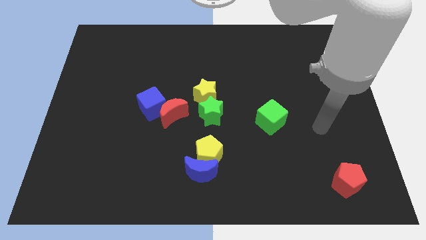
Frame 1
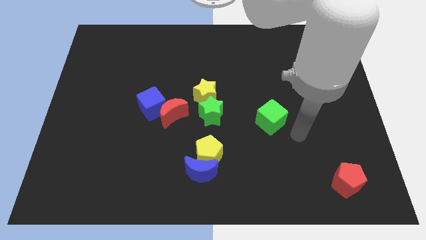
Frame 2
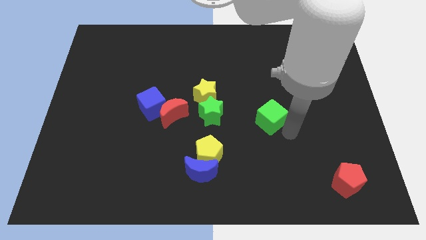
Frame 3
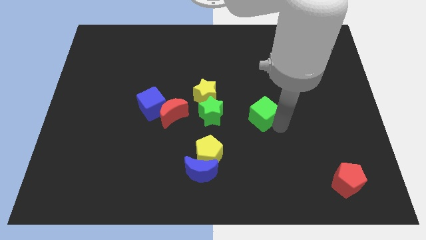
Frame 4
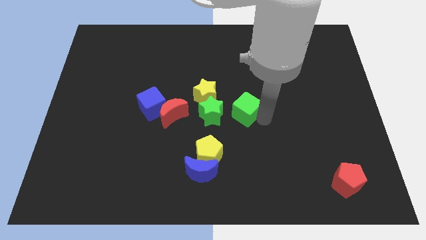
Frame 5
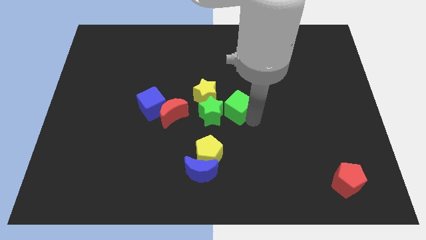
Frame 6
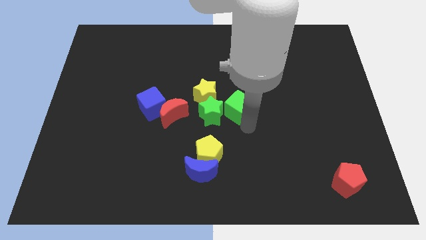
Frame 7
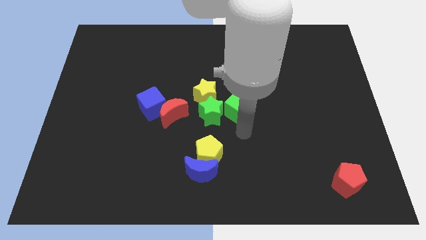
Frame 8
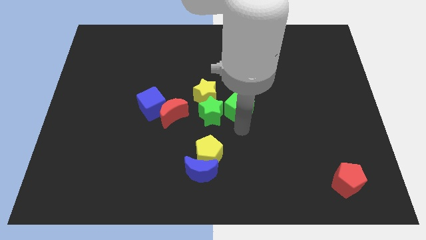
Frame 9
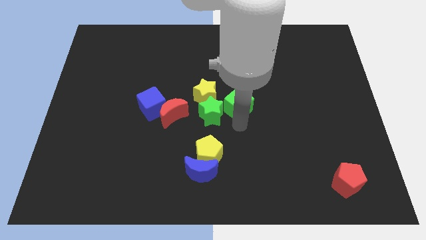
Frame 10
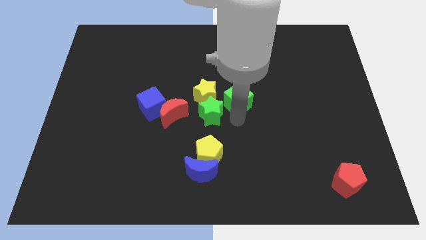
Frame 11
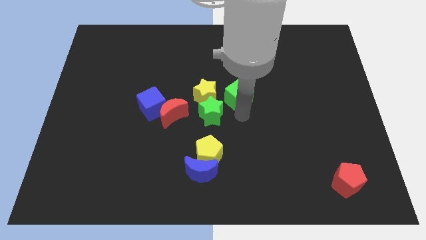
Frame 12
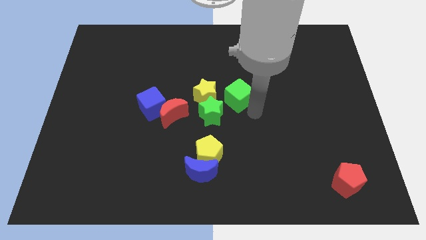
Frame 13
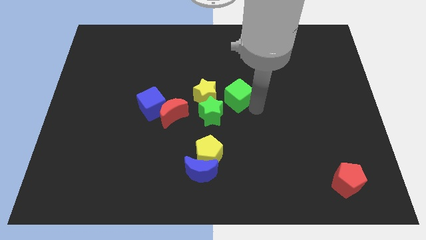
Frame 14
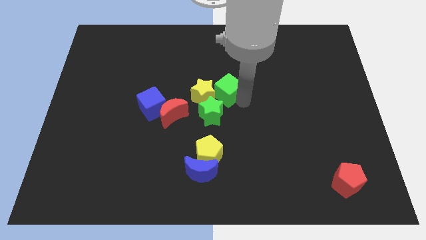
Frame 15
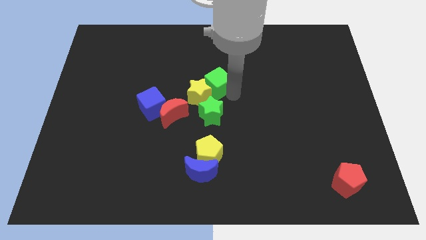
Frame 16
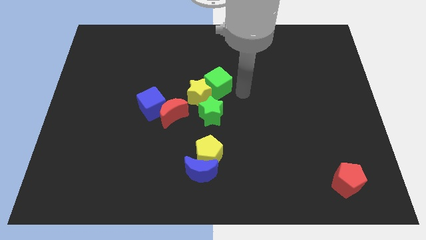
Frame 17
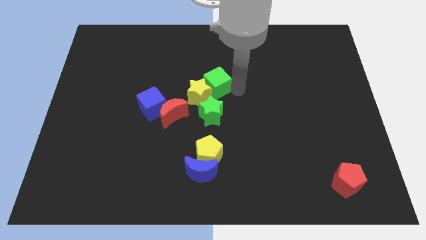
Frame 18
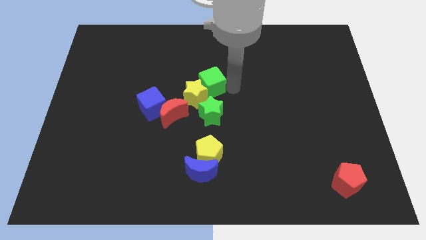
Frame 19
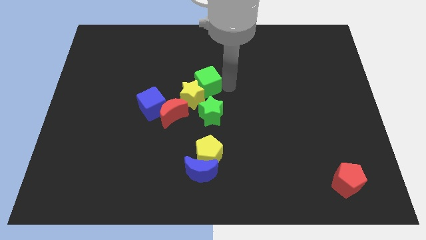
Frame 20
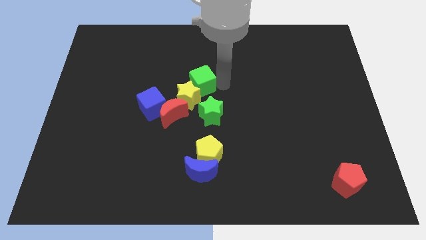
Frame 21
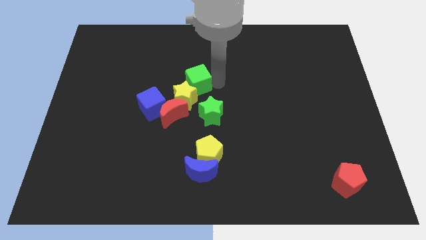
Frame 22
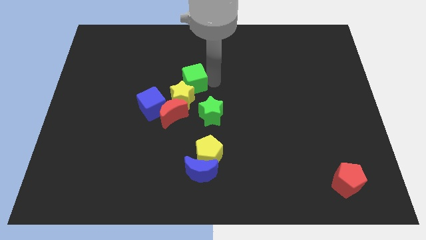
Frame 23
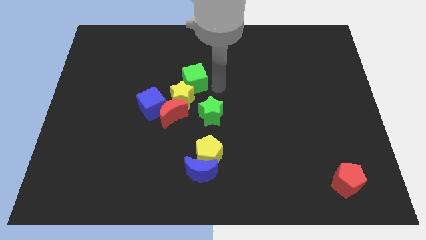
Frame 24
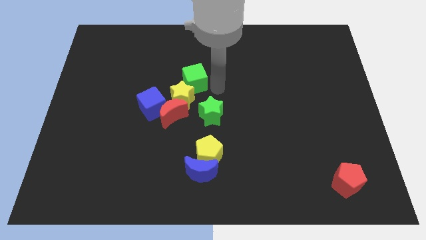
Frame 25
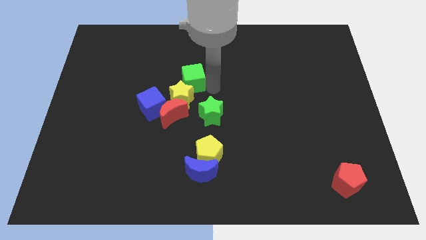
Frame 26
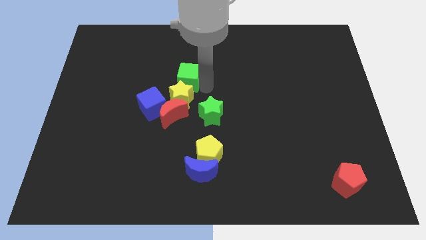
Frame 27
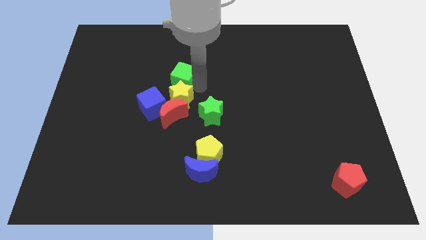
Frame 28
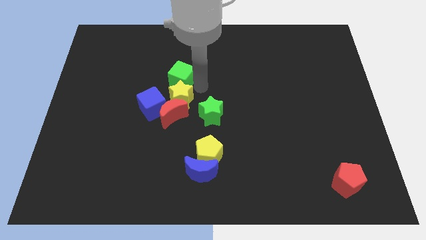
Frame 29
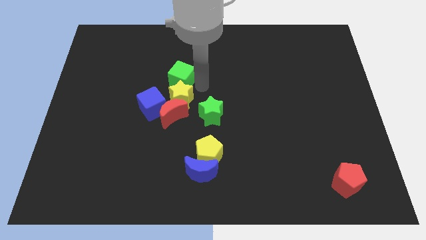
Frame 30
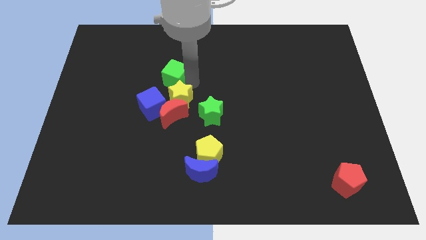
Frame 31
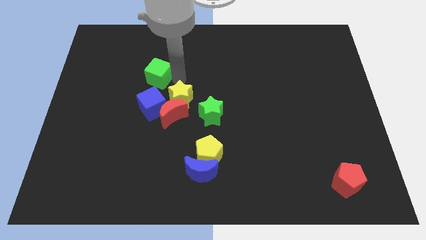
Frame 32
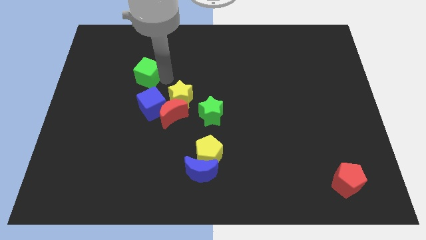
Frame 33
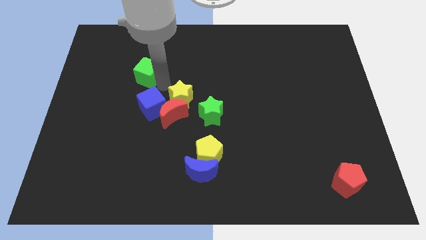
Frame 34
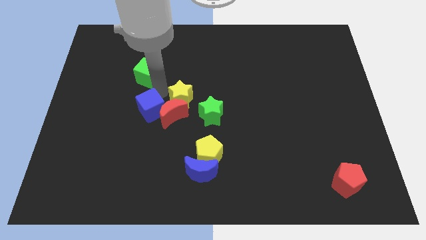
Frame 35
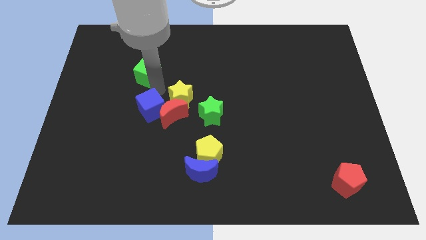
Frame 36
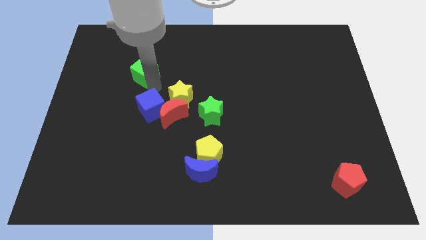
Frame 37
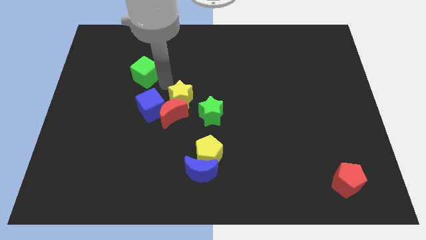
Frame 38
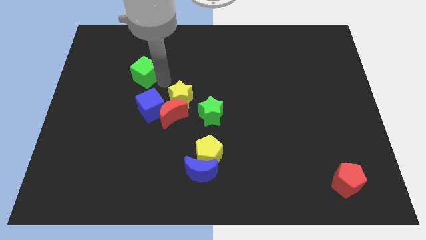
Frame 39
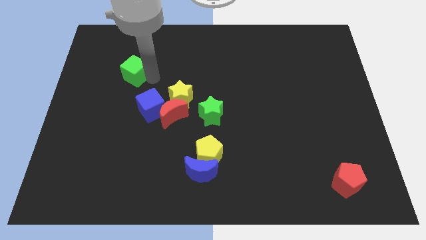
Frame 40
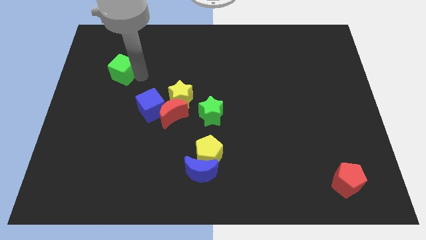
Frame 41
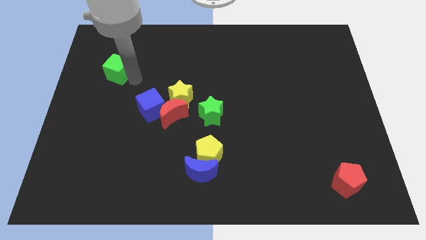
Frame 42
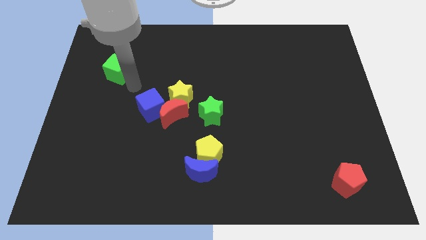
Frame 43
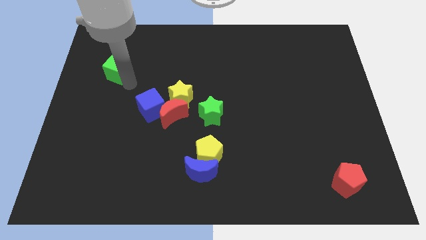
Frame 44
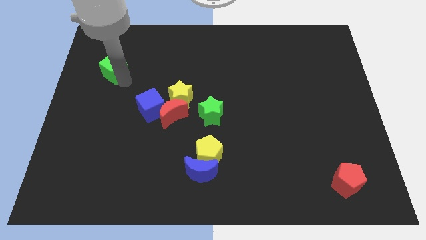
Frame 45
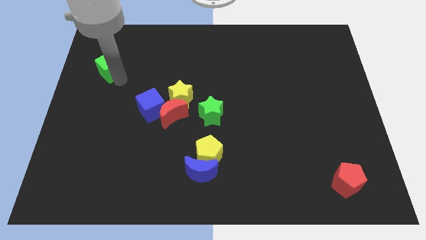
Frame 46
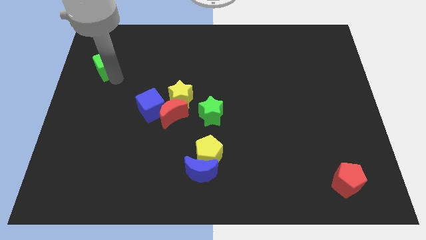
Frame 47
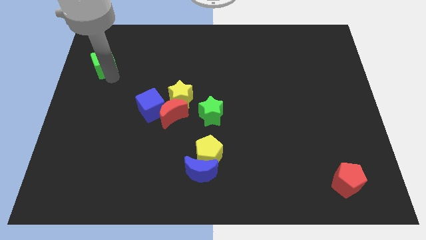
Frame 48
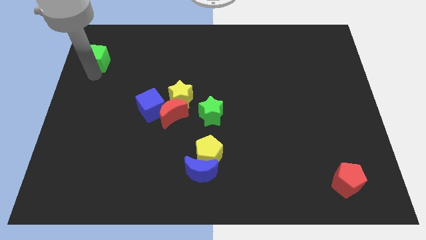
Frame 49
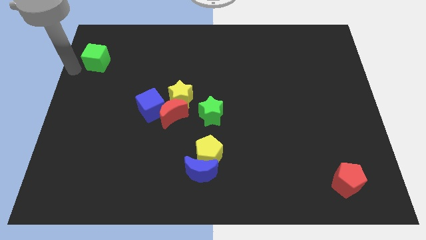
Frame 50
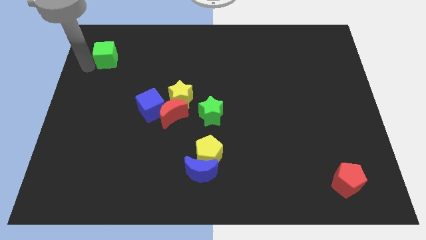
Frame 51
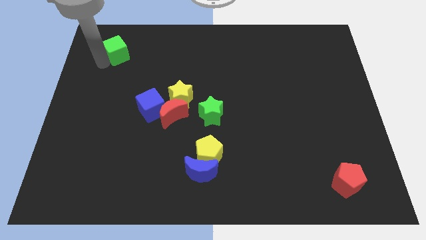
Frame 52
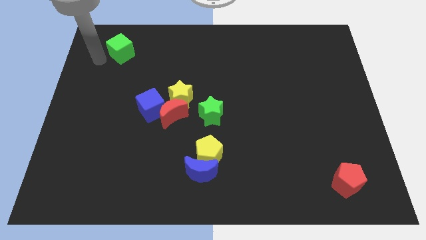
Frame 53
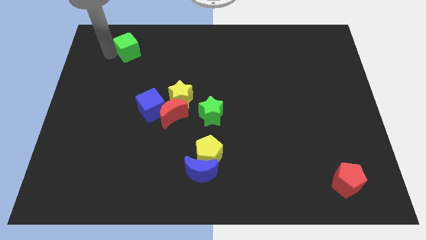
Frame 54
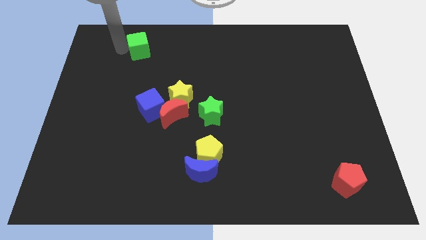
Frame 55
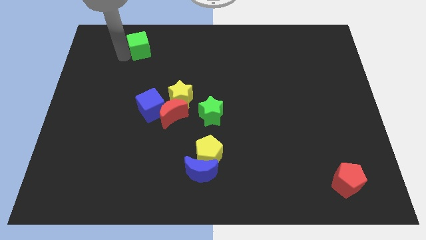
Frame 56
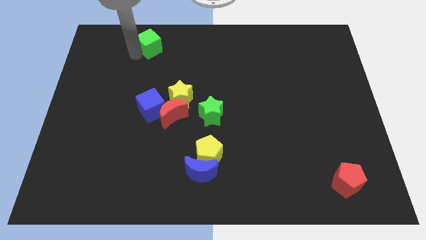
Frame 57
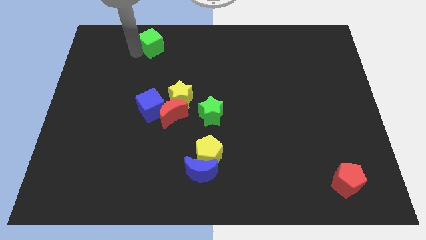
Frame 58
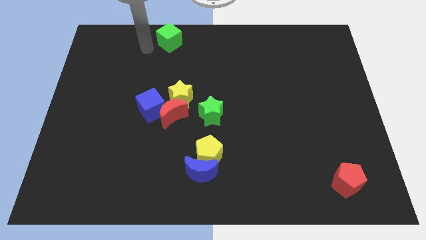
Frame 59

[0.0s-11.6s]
move the green cube to the top side
